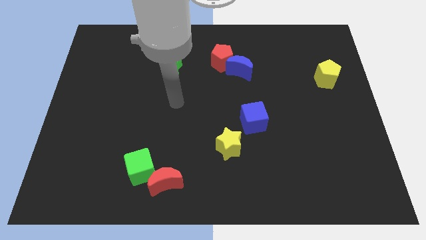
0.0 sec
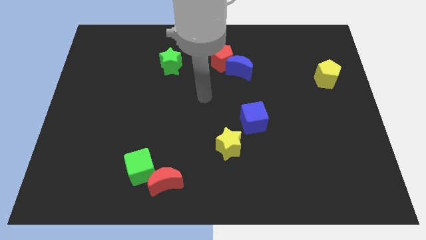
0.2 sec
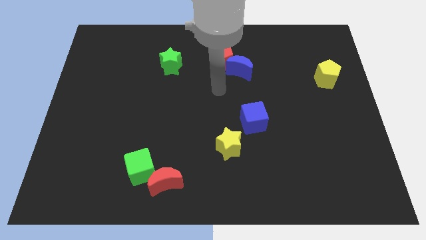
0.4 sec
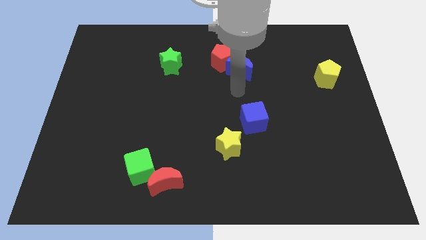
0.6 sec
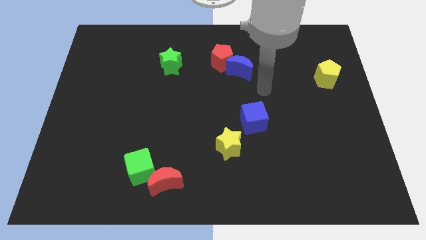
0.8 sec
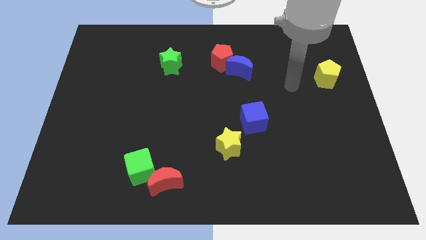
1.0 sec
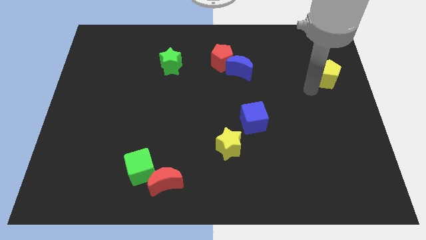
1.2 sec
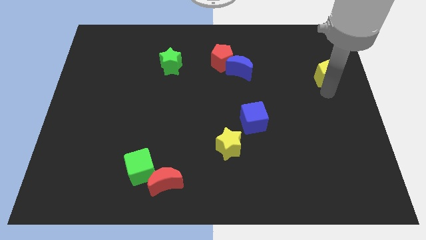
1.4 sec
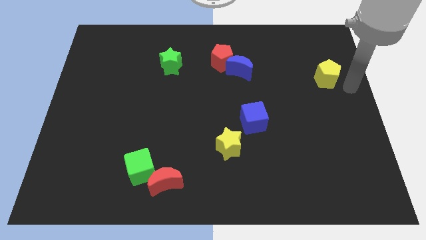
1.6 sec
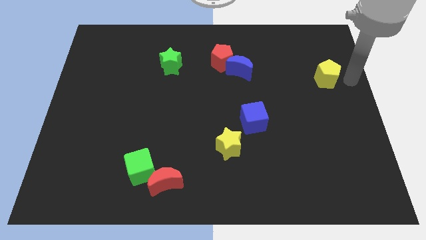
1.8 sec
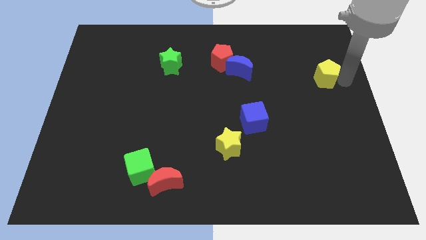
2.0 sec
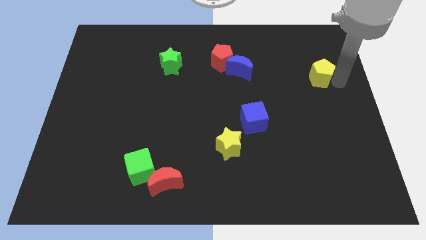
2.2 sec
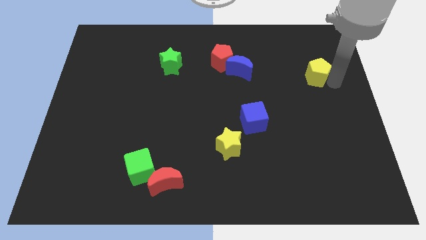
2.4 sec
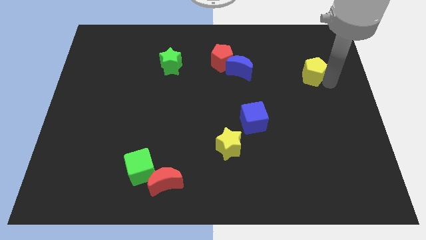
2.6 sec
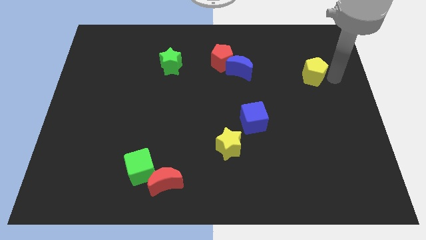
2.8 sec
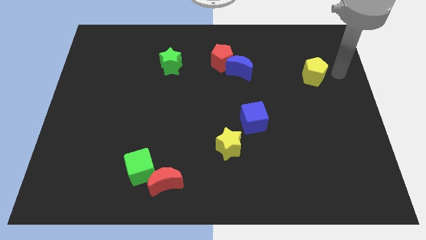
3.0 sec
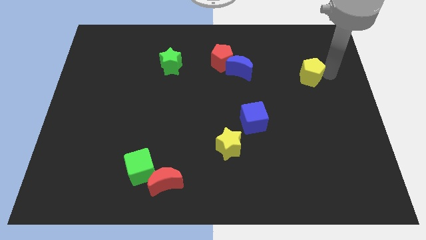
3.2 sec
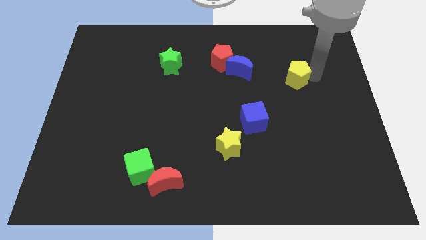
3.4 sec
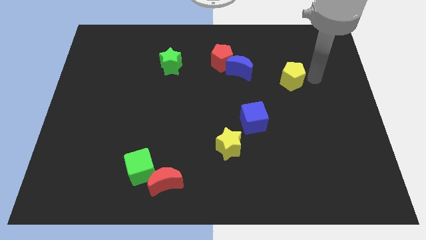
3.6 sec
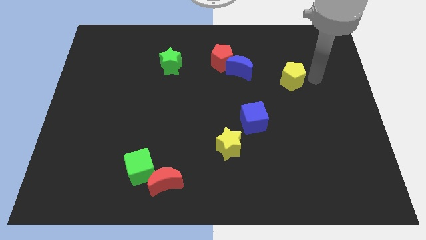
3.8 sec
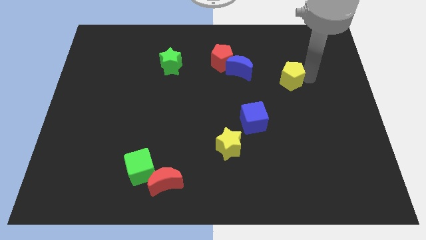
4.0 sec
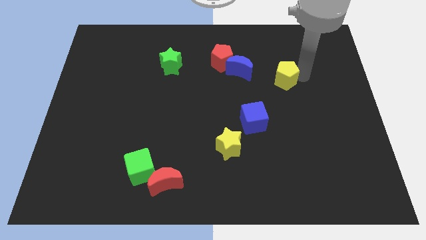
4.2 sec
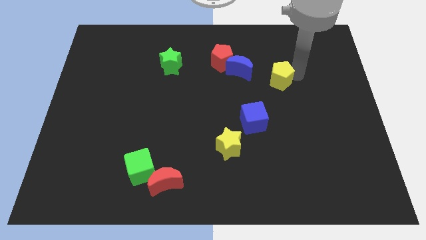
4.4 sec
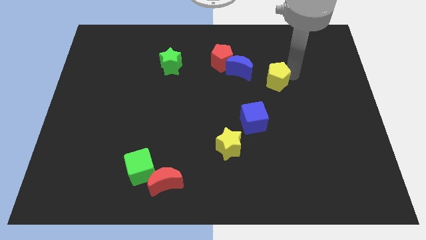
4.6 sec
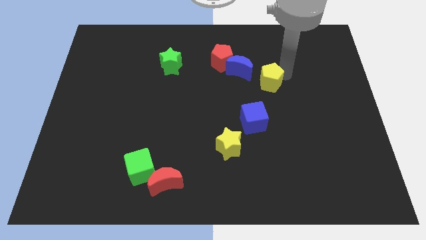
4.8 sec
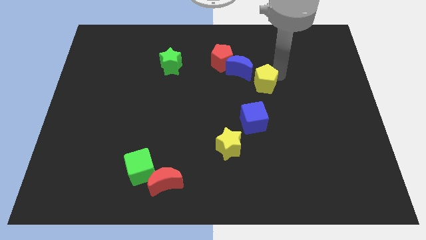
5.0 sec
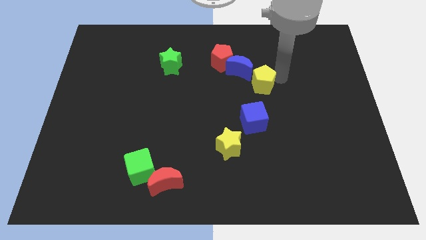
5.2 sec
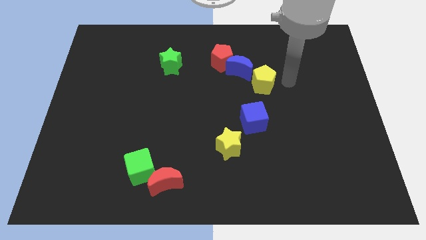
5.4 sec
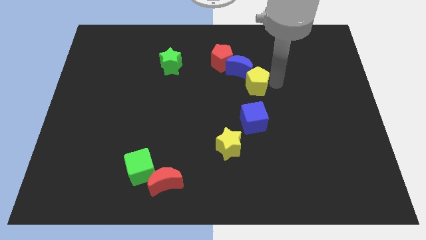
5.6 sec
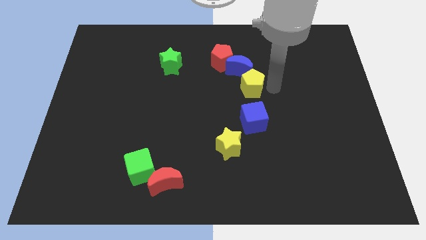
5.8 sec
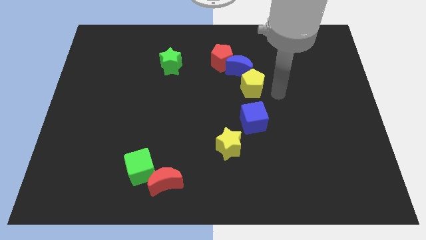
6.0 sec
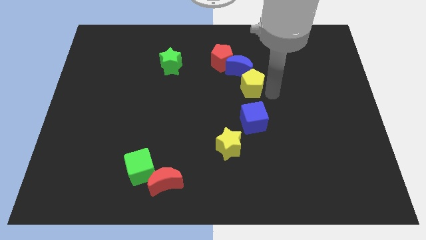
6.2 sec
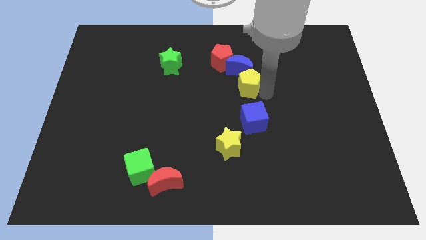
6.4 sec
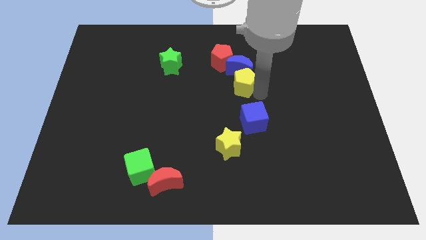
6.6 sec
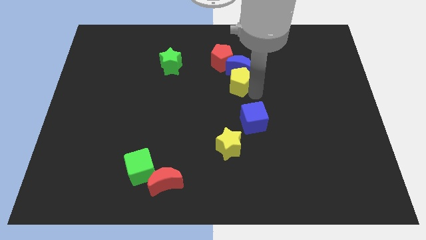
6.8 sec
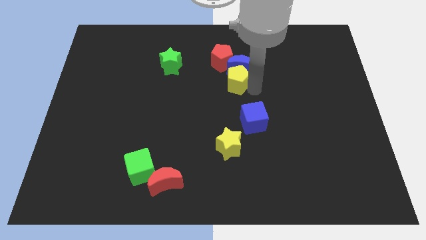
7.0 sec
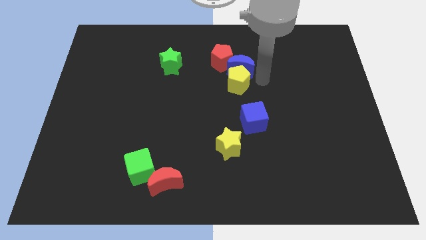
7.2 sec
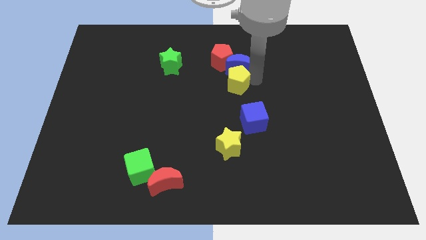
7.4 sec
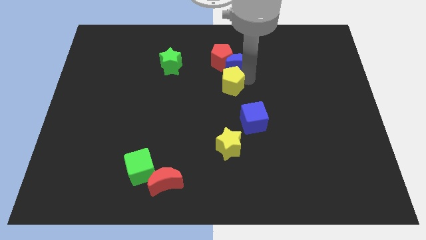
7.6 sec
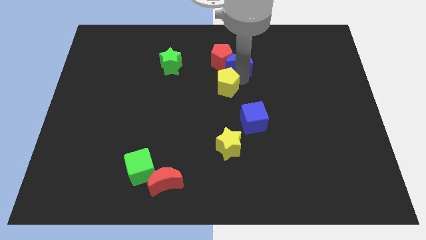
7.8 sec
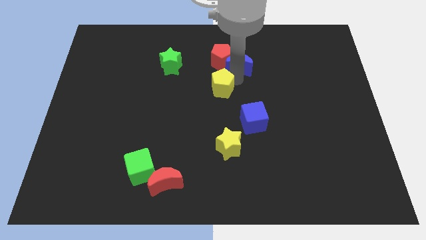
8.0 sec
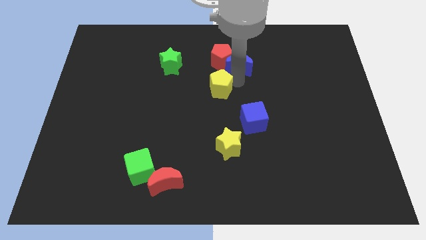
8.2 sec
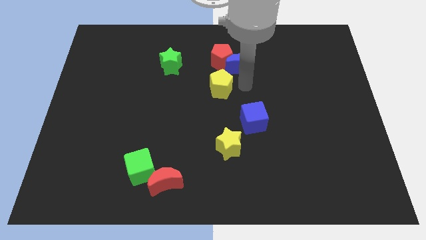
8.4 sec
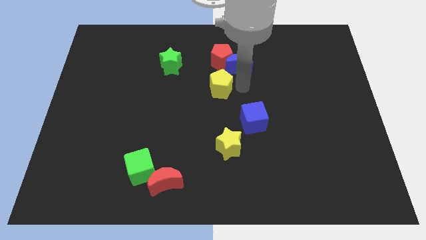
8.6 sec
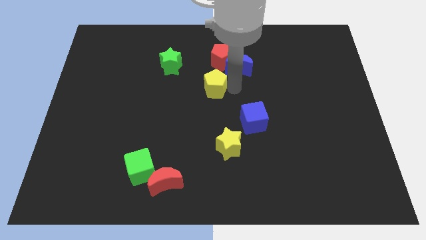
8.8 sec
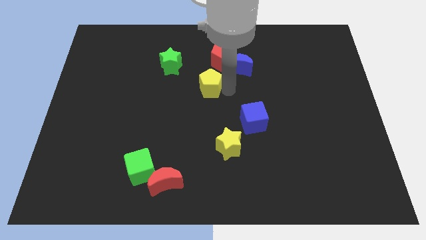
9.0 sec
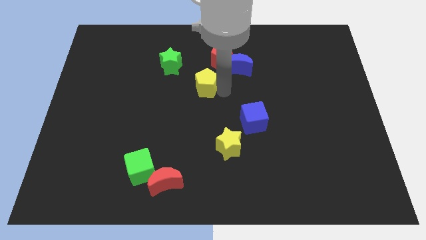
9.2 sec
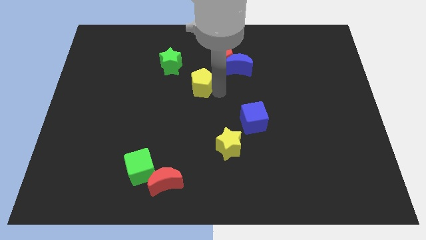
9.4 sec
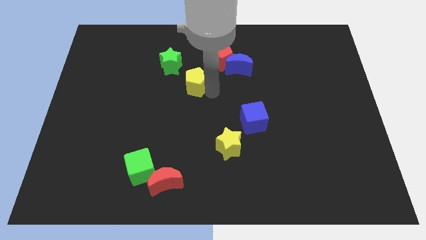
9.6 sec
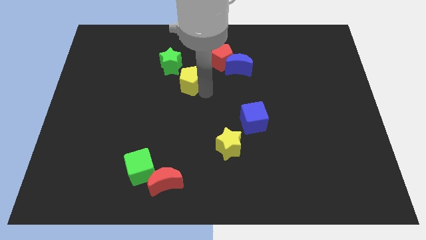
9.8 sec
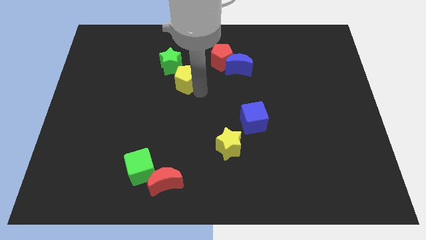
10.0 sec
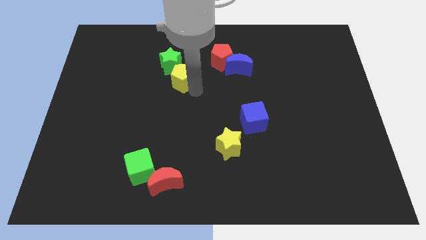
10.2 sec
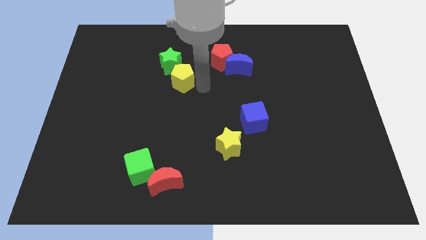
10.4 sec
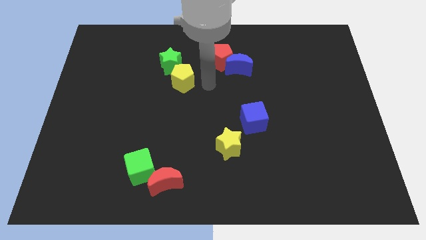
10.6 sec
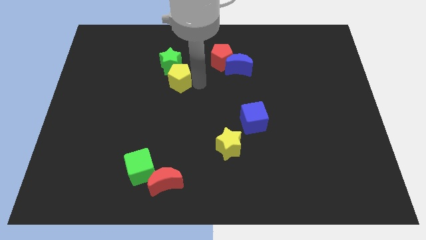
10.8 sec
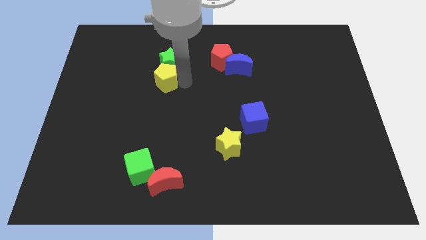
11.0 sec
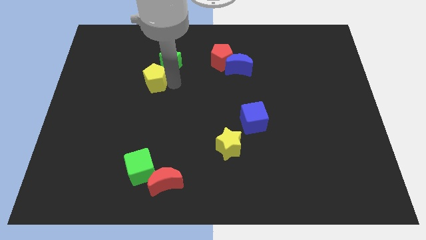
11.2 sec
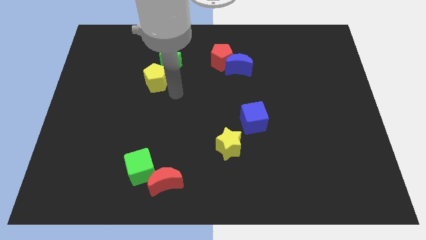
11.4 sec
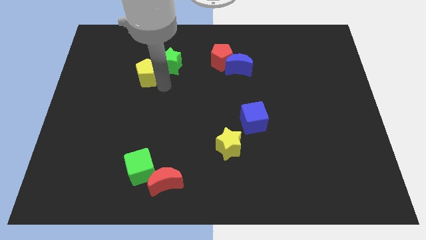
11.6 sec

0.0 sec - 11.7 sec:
push the yellow pentagon left of the green star

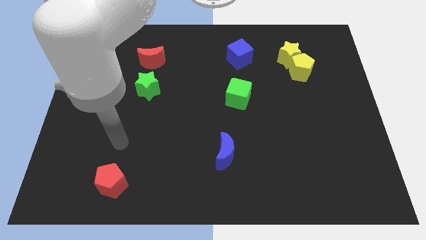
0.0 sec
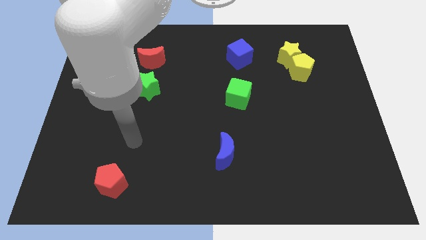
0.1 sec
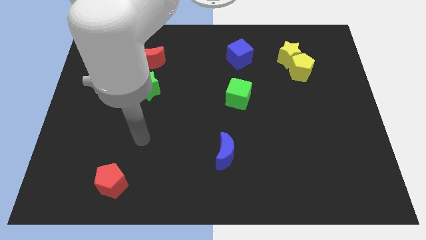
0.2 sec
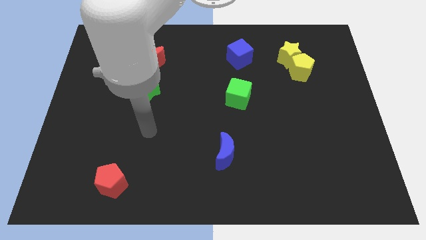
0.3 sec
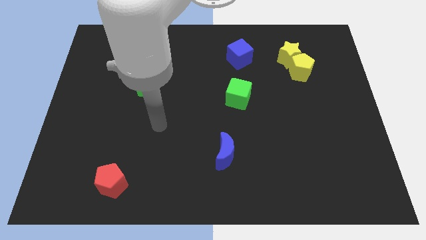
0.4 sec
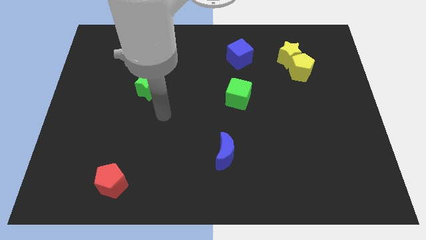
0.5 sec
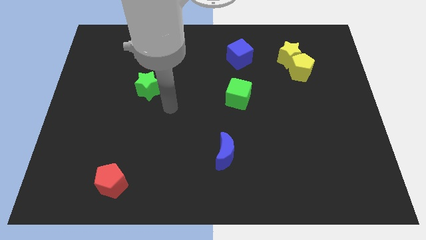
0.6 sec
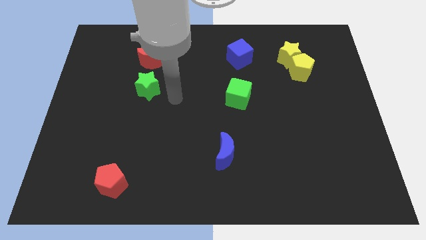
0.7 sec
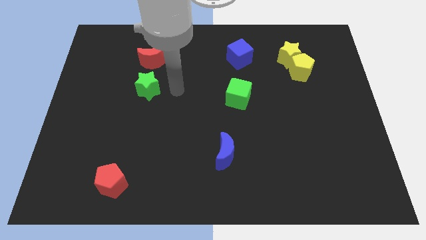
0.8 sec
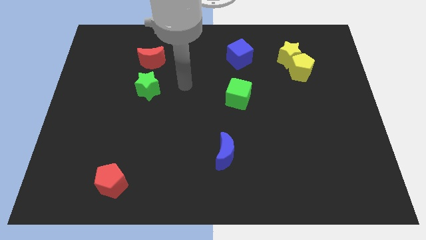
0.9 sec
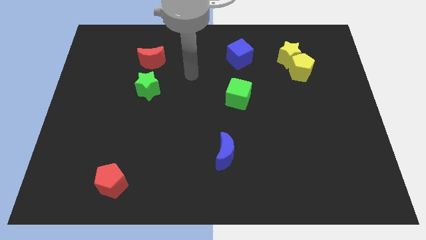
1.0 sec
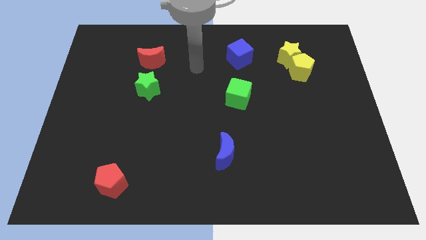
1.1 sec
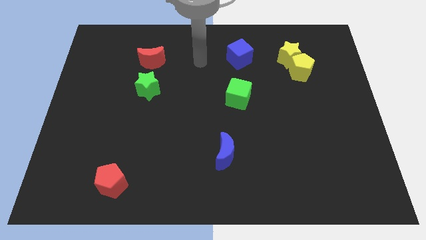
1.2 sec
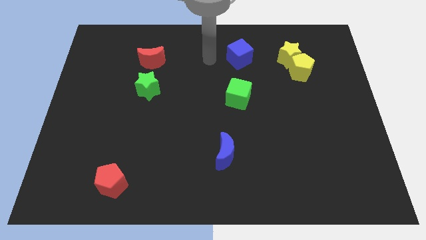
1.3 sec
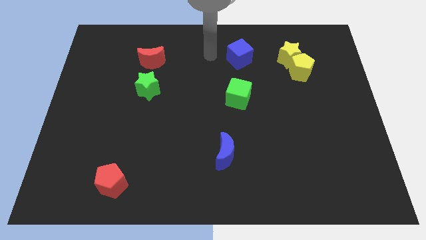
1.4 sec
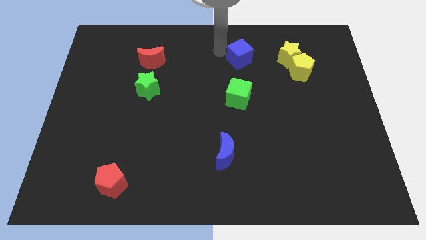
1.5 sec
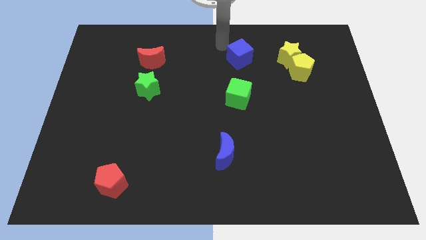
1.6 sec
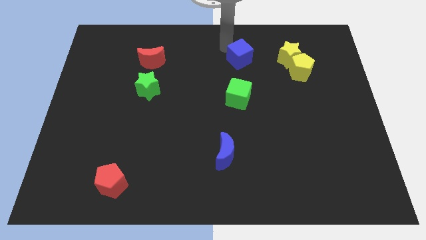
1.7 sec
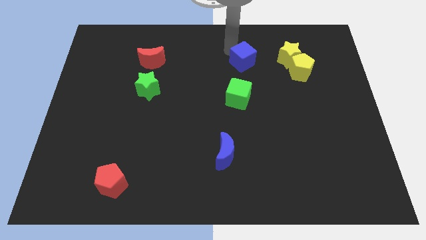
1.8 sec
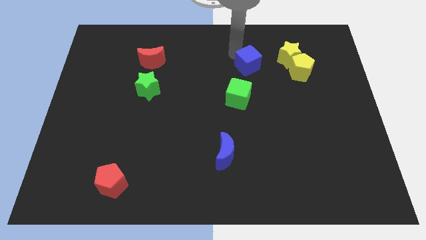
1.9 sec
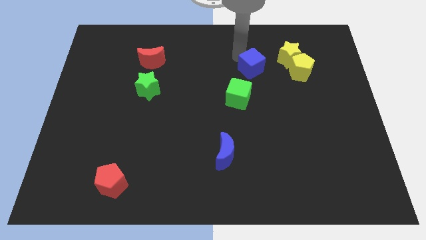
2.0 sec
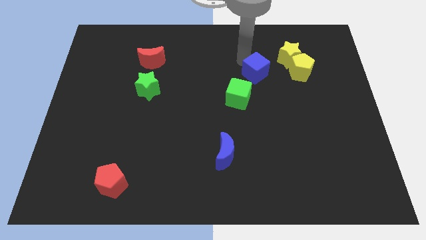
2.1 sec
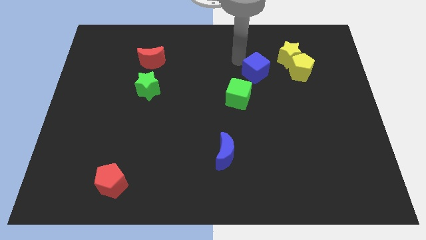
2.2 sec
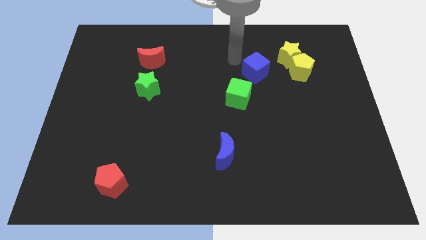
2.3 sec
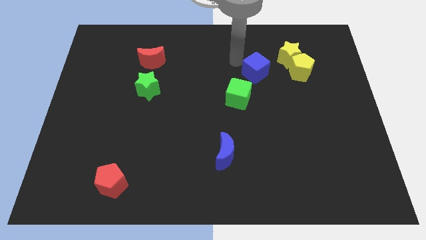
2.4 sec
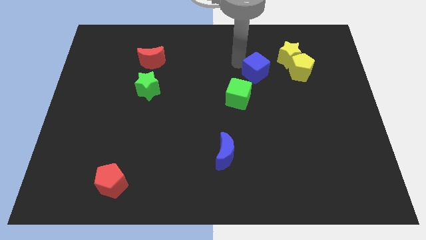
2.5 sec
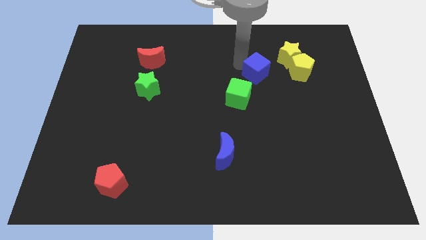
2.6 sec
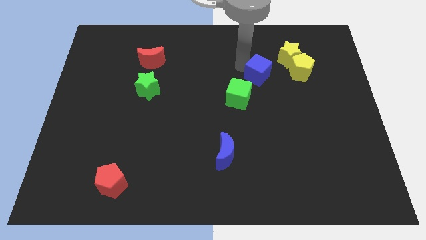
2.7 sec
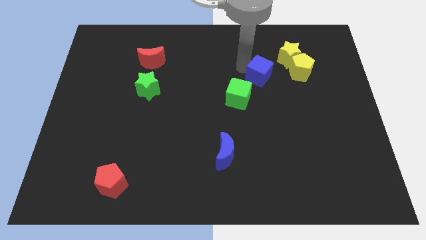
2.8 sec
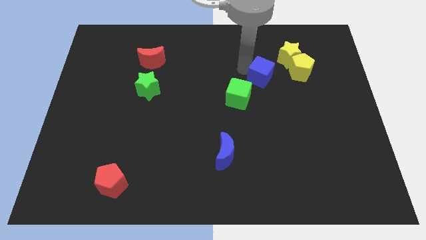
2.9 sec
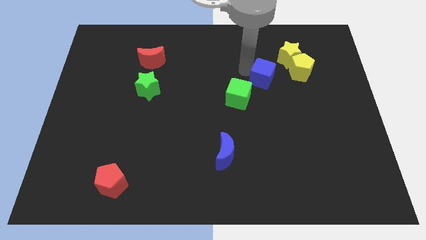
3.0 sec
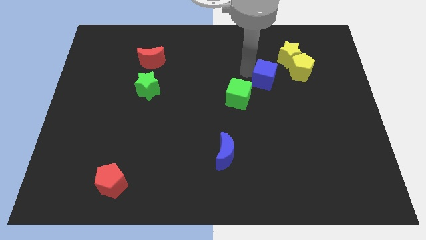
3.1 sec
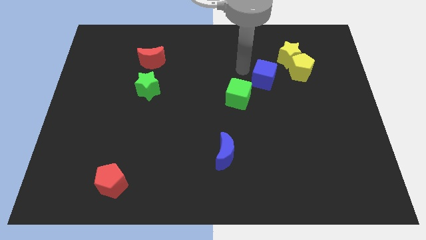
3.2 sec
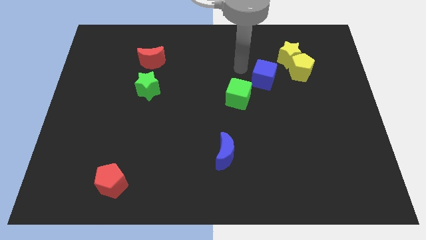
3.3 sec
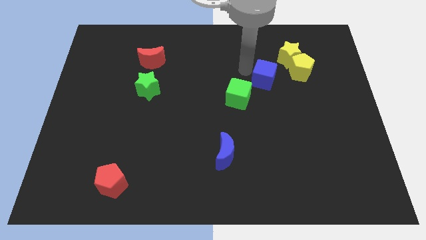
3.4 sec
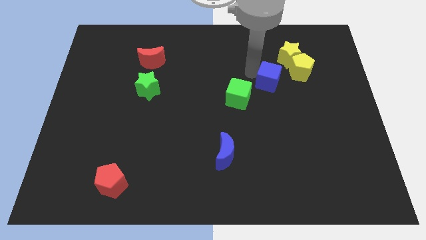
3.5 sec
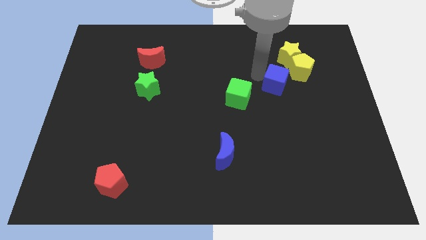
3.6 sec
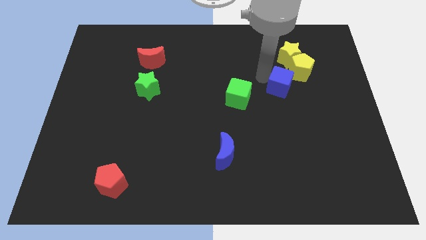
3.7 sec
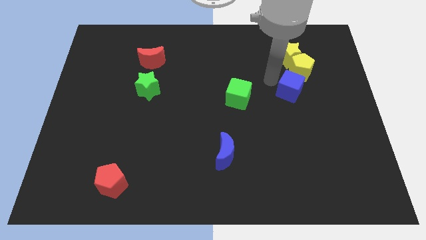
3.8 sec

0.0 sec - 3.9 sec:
slide the blue cube to the bottom side of the yellow pentagon
